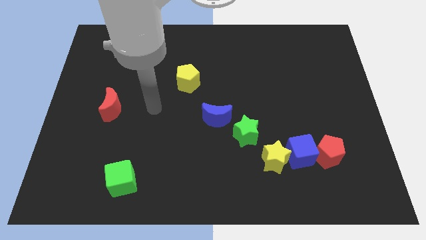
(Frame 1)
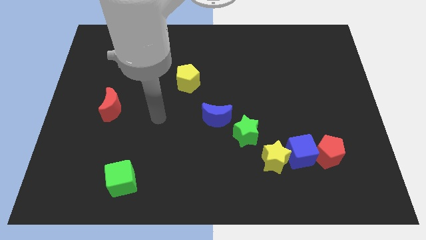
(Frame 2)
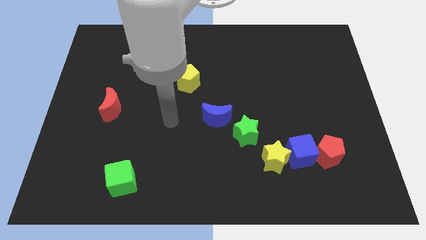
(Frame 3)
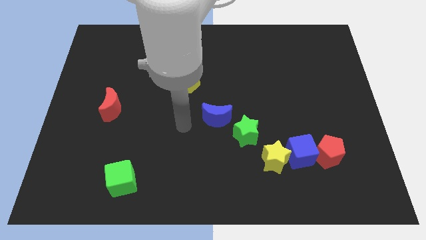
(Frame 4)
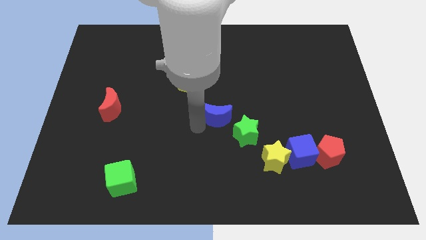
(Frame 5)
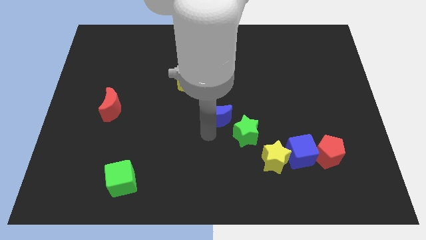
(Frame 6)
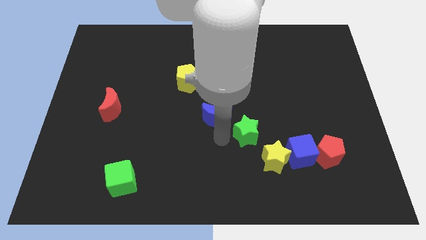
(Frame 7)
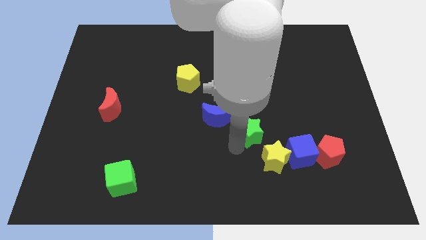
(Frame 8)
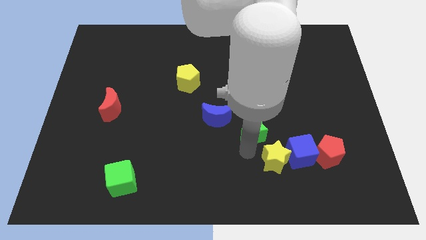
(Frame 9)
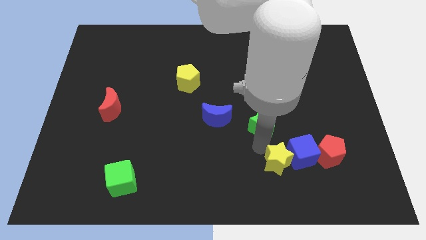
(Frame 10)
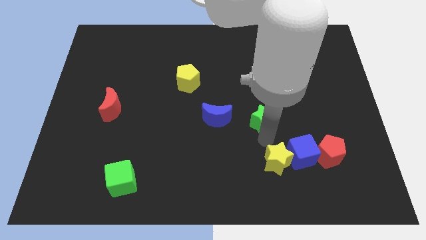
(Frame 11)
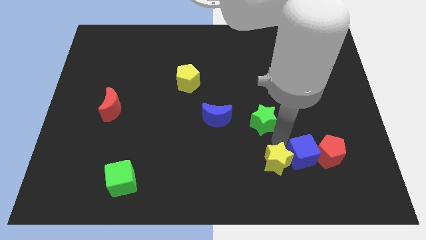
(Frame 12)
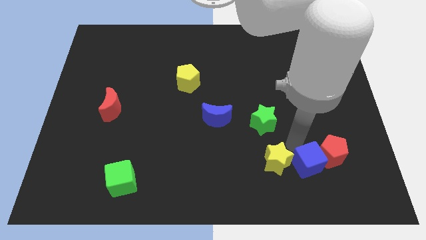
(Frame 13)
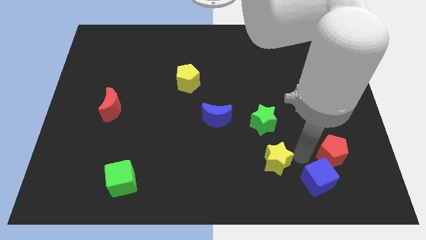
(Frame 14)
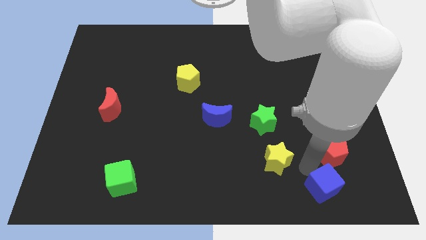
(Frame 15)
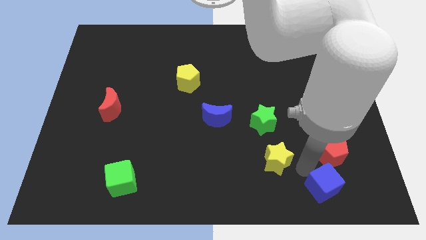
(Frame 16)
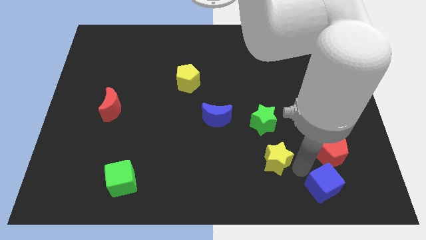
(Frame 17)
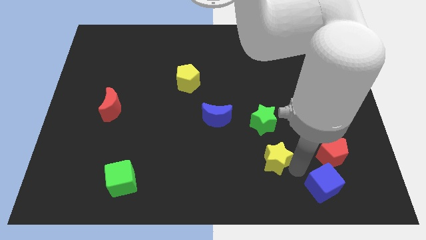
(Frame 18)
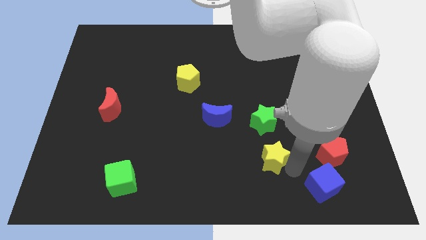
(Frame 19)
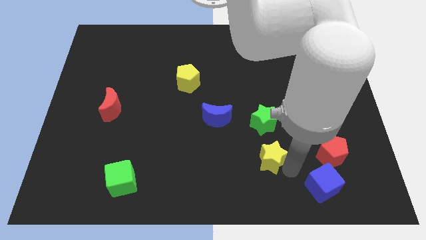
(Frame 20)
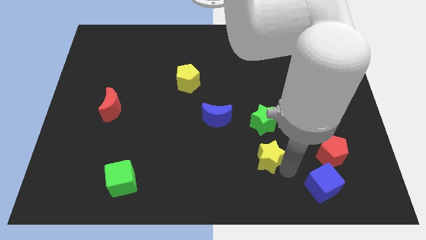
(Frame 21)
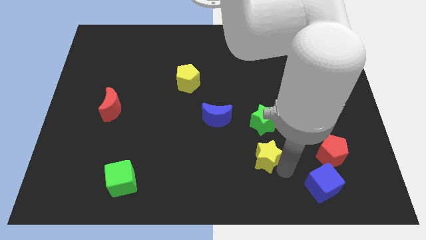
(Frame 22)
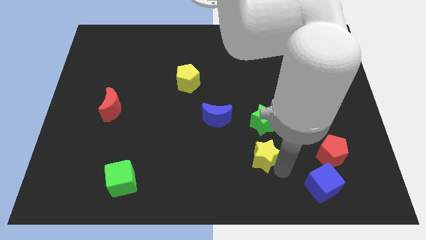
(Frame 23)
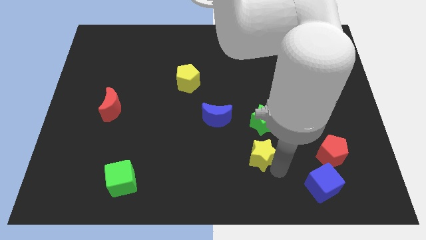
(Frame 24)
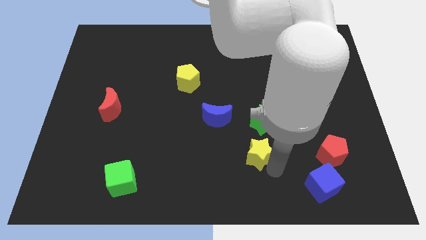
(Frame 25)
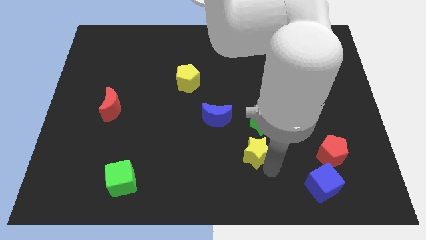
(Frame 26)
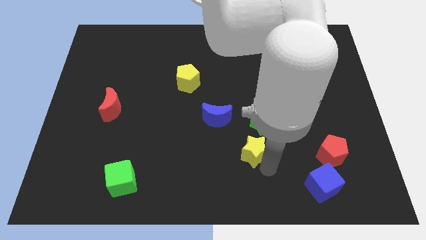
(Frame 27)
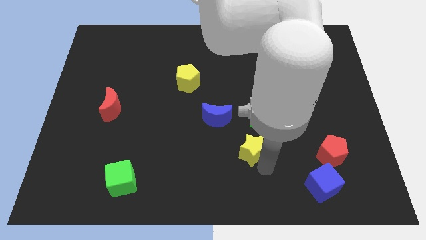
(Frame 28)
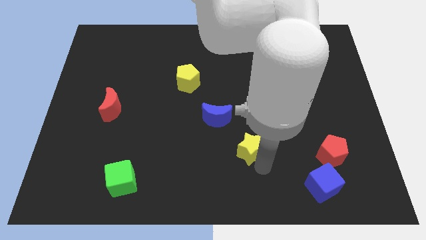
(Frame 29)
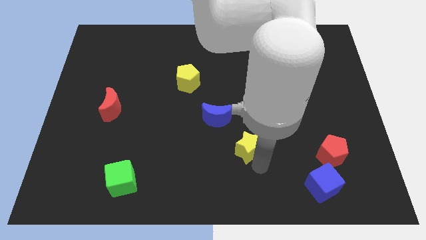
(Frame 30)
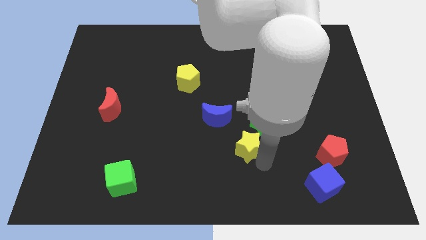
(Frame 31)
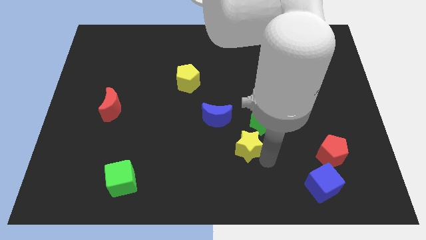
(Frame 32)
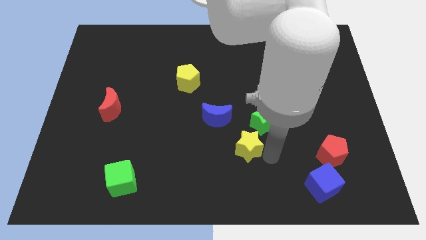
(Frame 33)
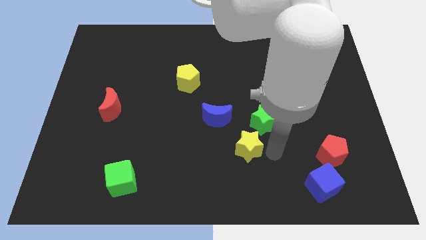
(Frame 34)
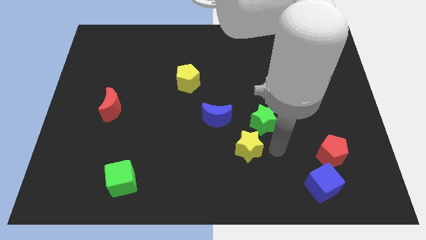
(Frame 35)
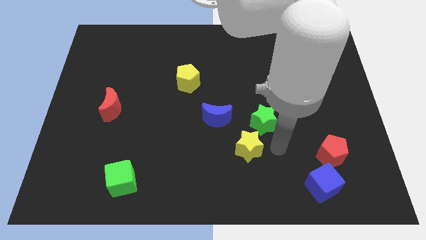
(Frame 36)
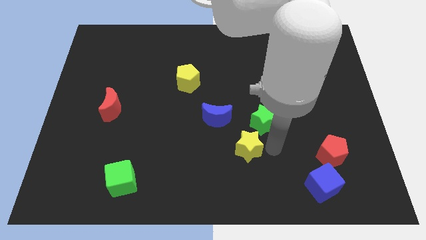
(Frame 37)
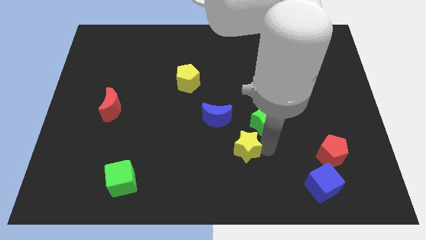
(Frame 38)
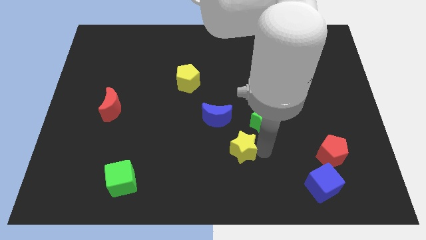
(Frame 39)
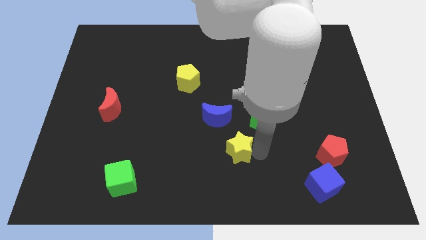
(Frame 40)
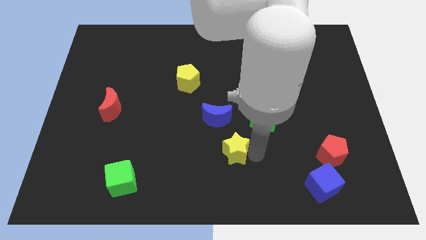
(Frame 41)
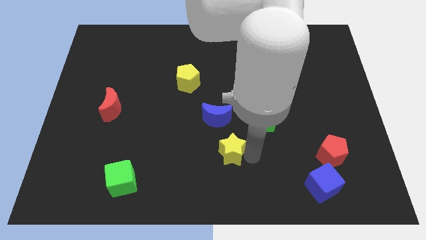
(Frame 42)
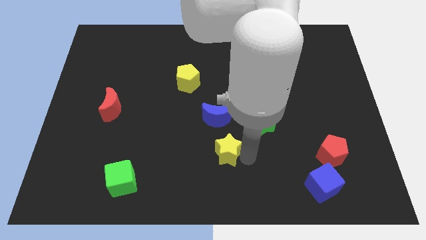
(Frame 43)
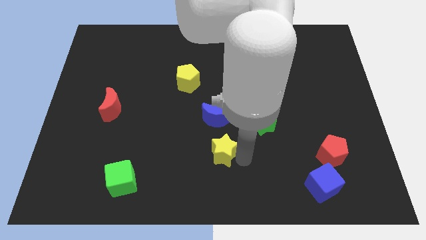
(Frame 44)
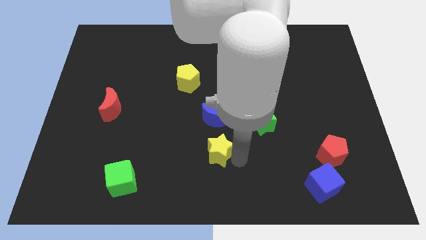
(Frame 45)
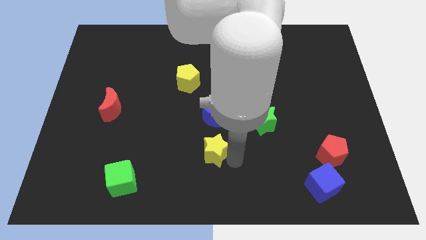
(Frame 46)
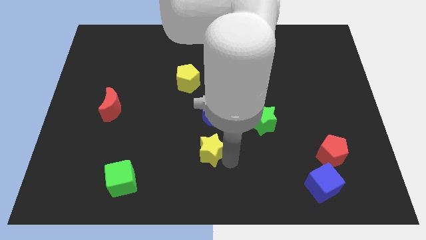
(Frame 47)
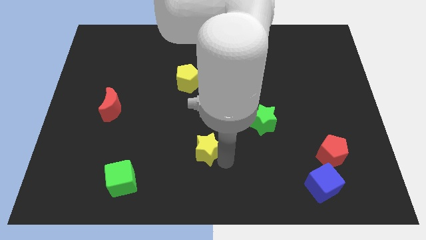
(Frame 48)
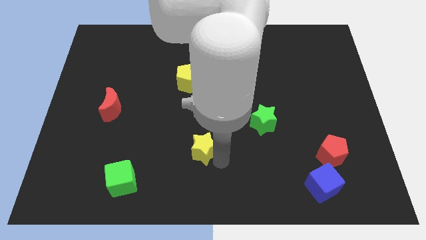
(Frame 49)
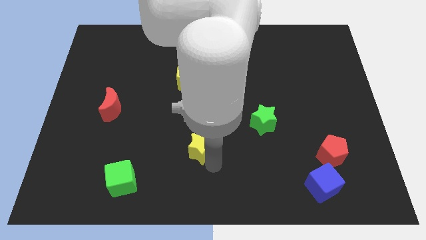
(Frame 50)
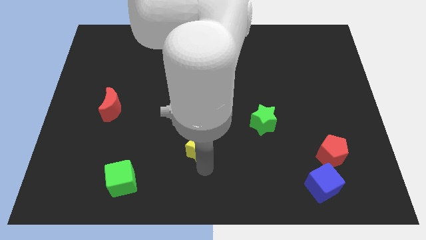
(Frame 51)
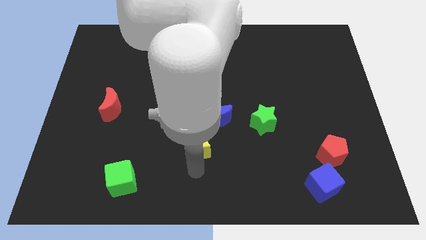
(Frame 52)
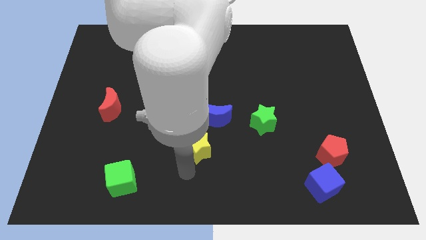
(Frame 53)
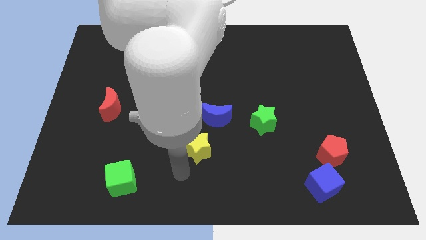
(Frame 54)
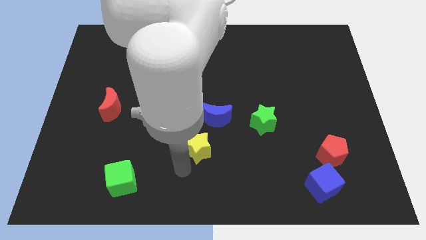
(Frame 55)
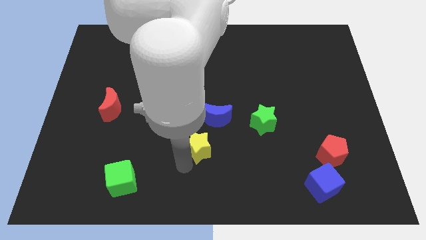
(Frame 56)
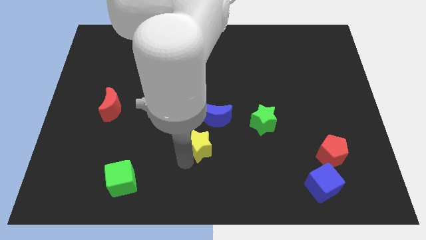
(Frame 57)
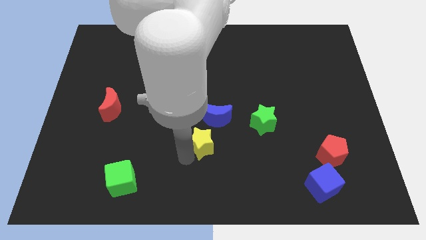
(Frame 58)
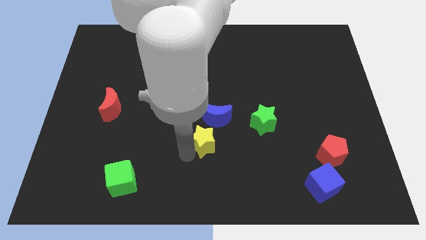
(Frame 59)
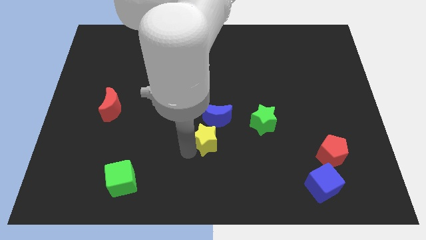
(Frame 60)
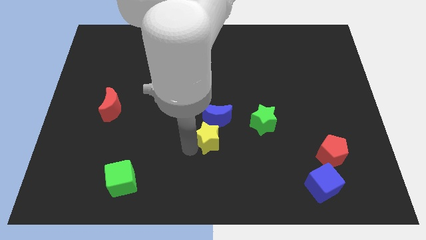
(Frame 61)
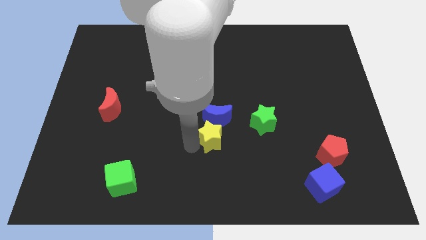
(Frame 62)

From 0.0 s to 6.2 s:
push the yellow star to the left side of the green star

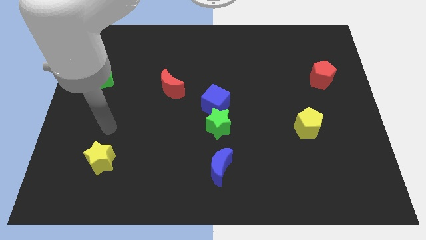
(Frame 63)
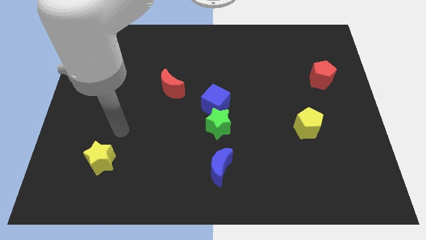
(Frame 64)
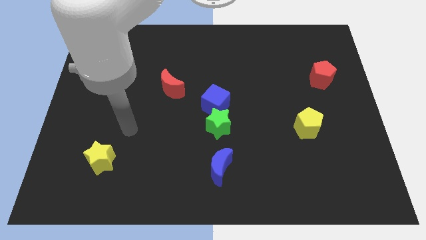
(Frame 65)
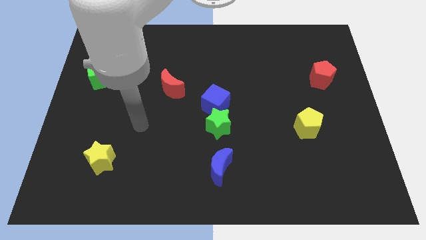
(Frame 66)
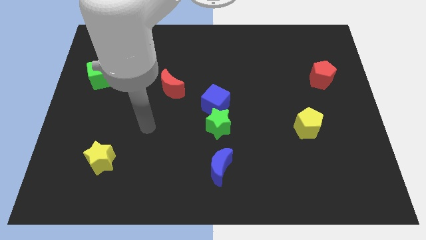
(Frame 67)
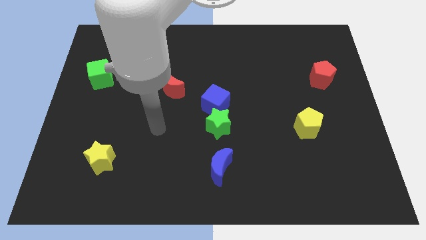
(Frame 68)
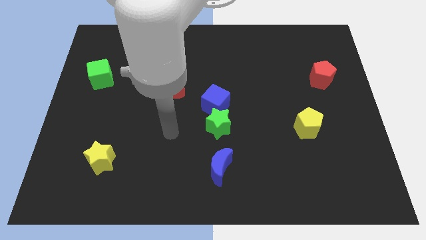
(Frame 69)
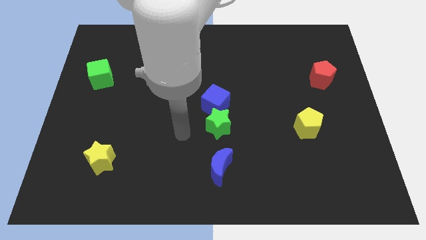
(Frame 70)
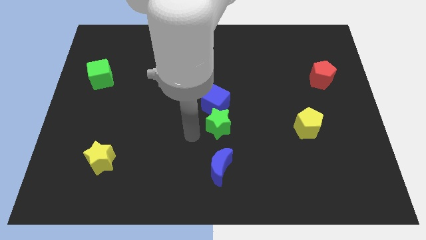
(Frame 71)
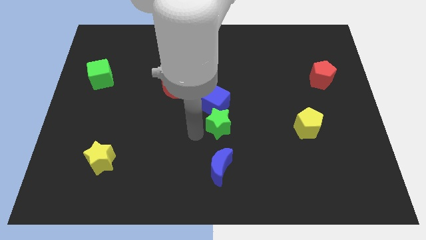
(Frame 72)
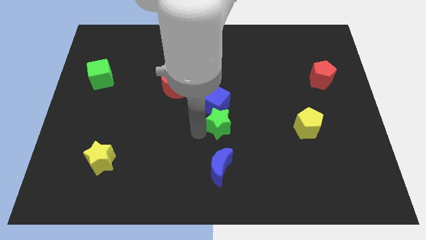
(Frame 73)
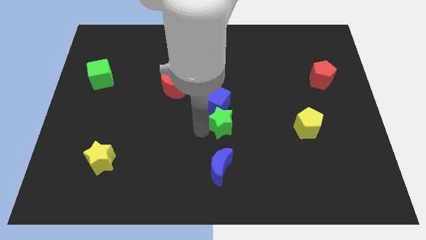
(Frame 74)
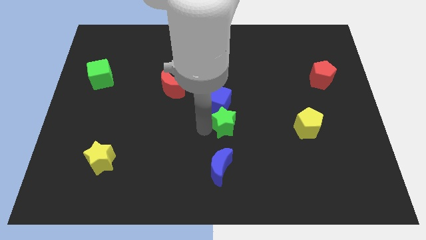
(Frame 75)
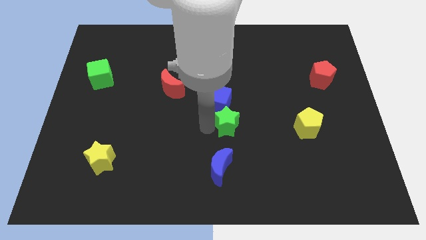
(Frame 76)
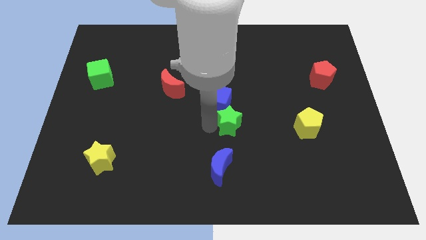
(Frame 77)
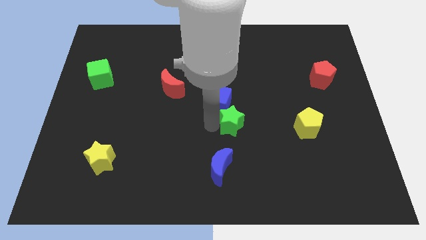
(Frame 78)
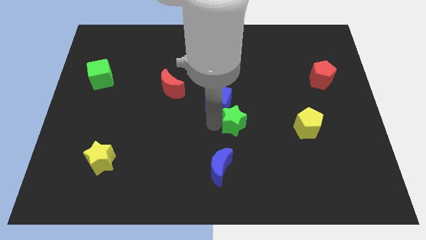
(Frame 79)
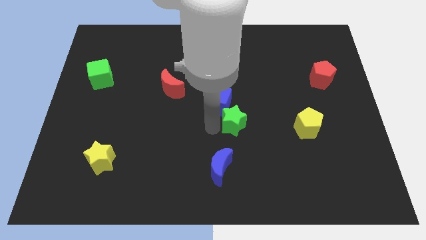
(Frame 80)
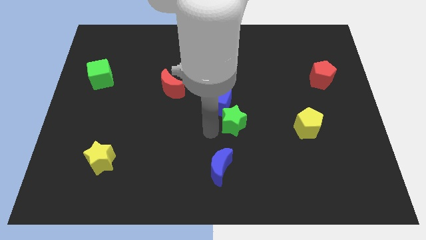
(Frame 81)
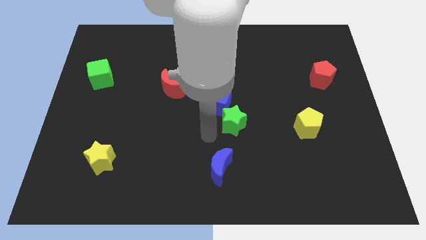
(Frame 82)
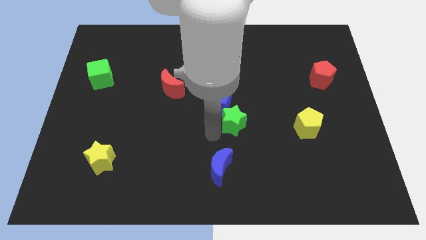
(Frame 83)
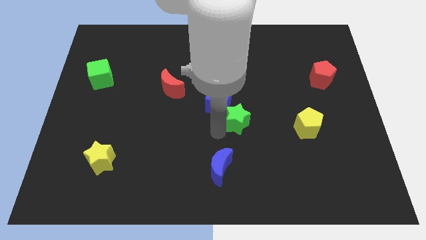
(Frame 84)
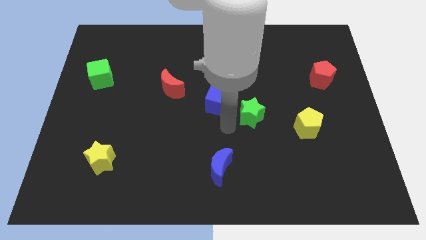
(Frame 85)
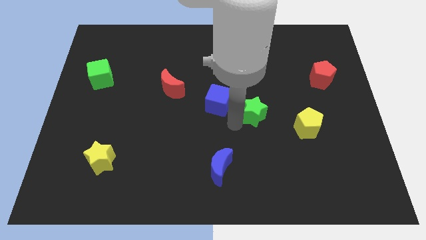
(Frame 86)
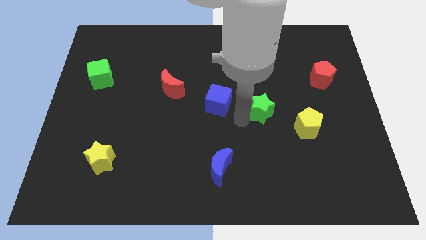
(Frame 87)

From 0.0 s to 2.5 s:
put the green star diagonally up and to the left of the yellow pentagon
